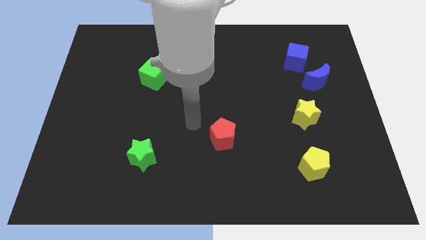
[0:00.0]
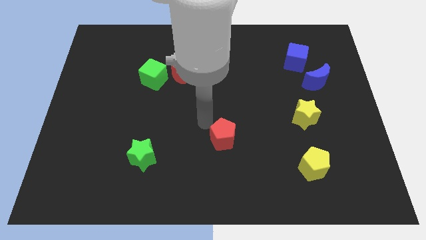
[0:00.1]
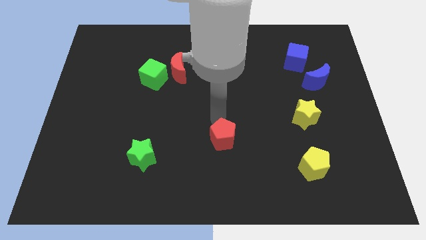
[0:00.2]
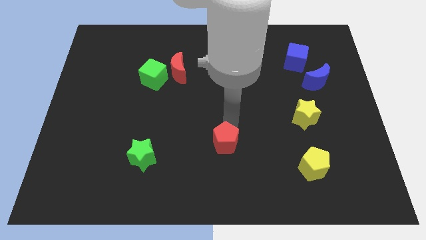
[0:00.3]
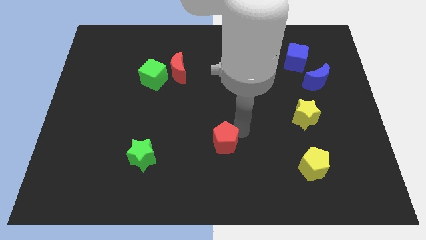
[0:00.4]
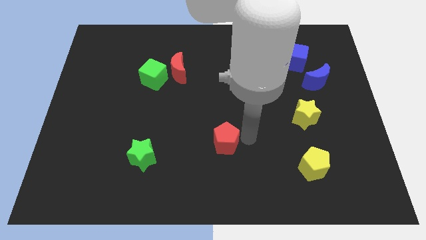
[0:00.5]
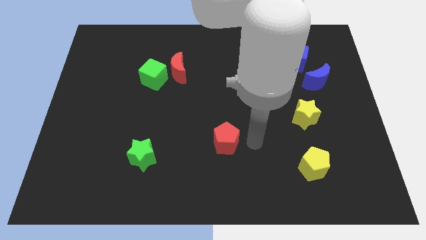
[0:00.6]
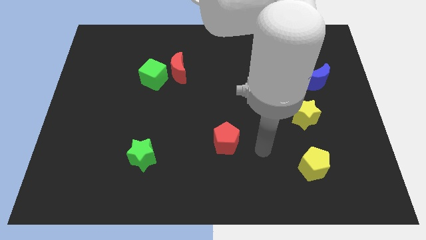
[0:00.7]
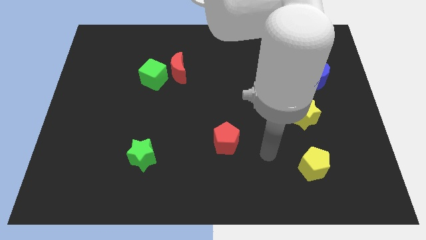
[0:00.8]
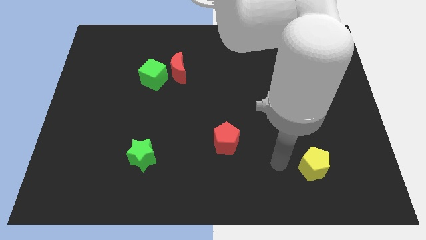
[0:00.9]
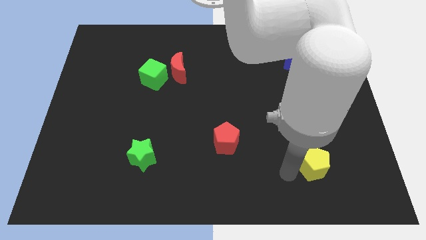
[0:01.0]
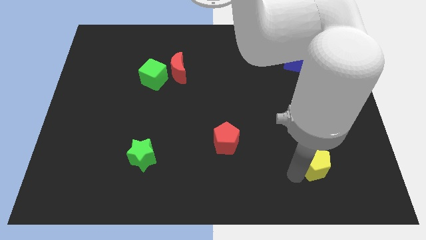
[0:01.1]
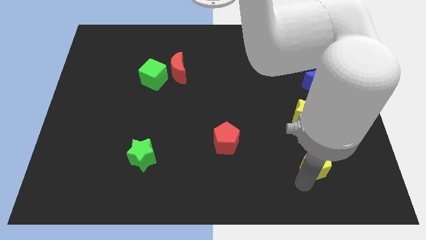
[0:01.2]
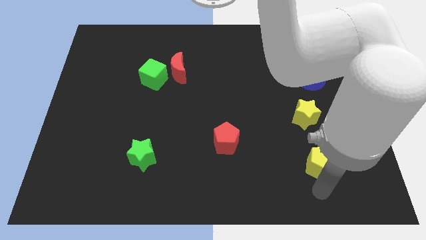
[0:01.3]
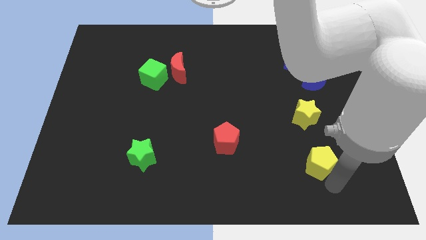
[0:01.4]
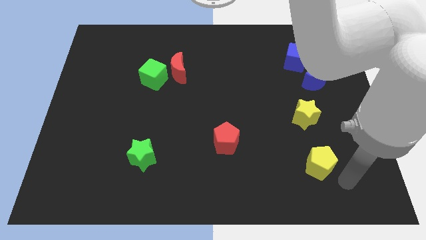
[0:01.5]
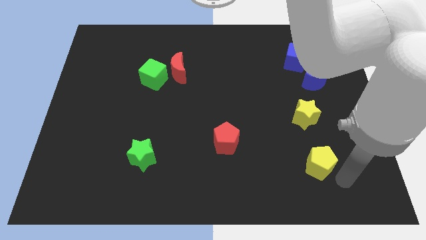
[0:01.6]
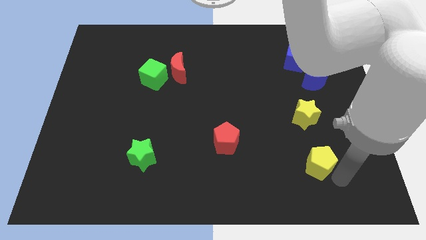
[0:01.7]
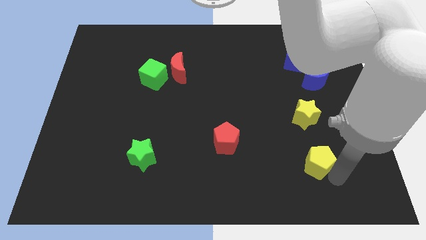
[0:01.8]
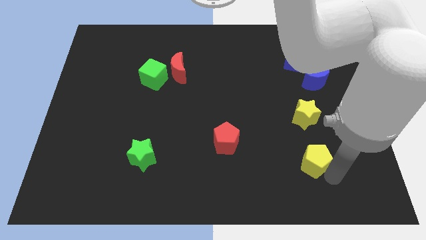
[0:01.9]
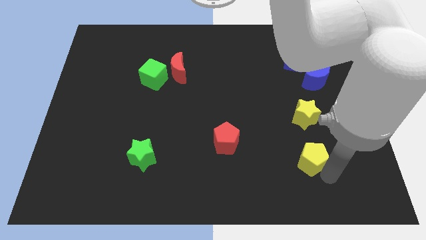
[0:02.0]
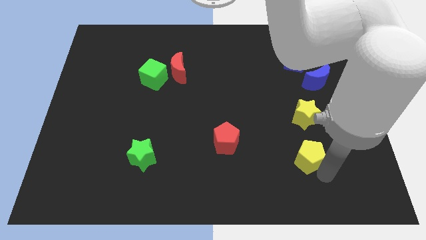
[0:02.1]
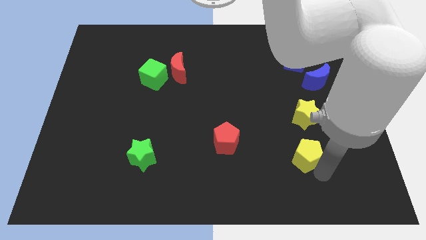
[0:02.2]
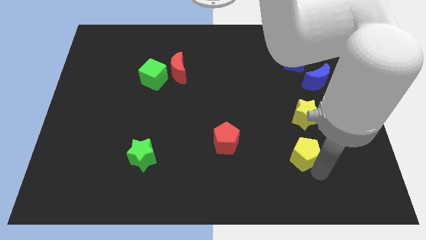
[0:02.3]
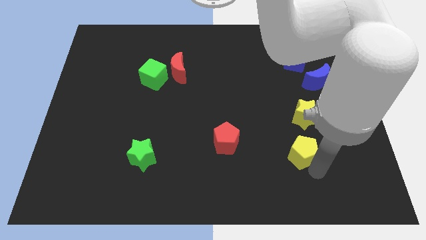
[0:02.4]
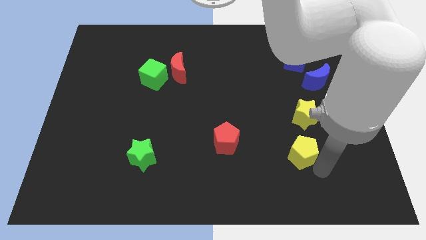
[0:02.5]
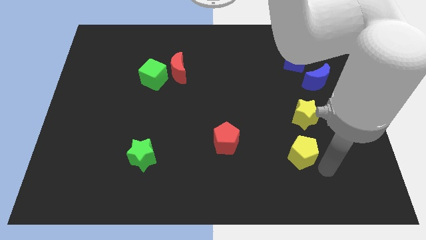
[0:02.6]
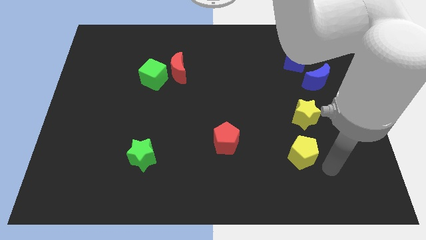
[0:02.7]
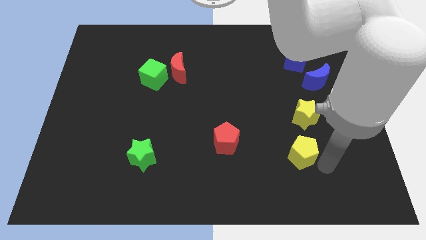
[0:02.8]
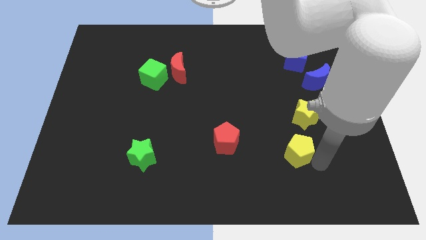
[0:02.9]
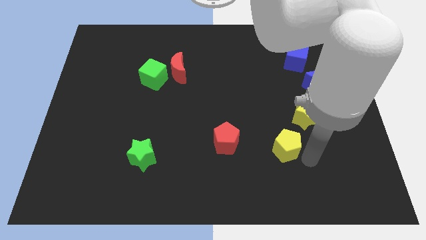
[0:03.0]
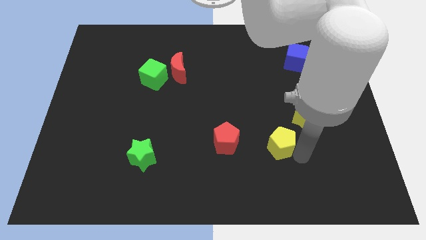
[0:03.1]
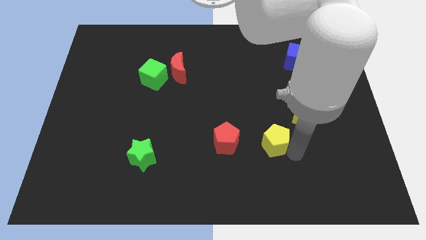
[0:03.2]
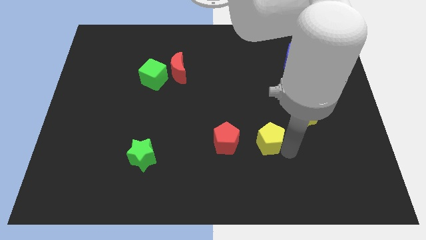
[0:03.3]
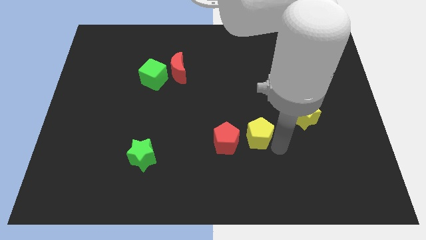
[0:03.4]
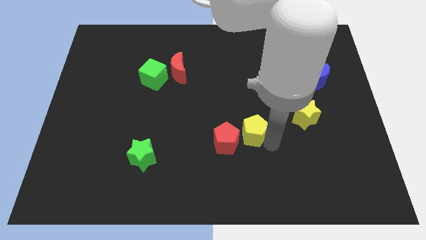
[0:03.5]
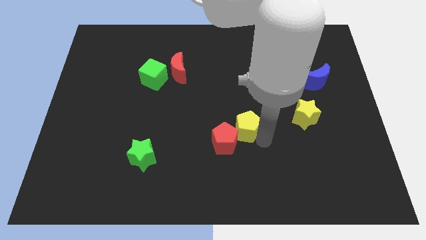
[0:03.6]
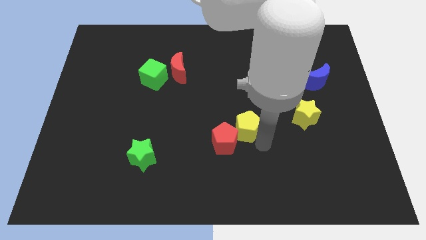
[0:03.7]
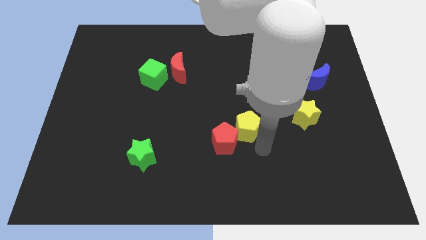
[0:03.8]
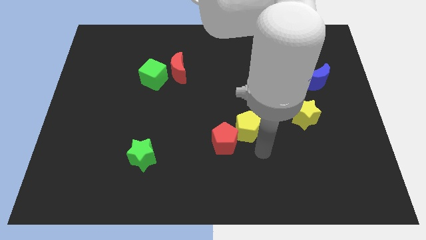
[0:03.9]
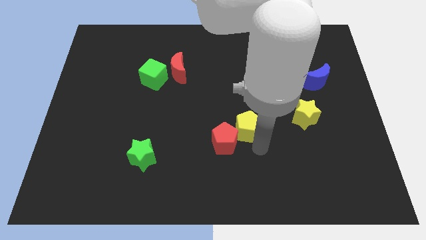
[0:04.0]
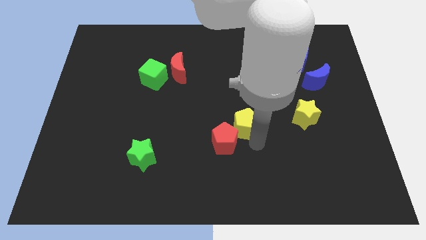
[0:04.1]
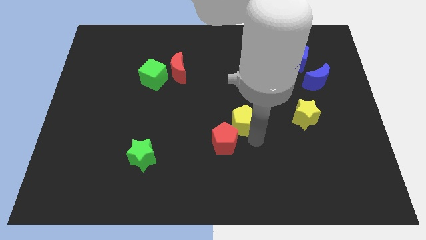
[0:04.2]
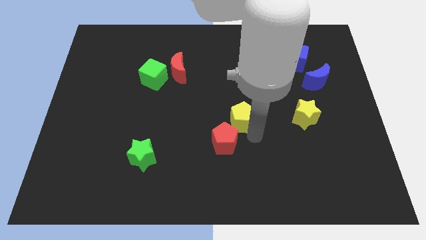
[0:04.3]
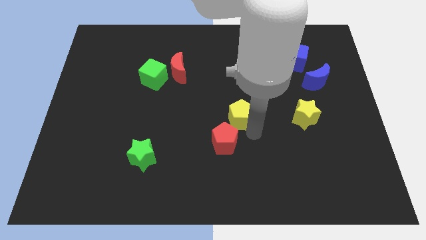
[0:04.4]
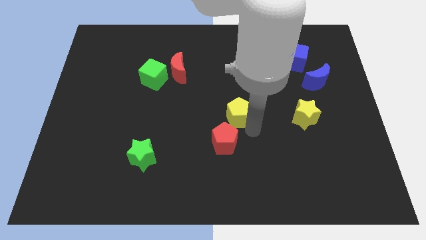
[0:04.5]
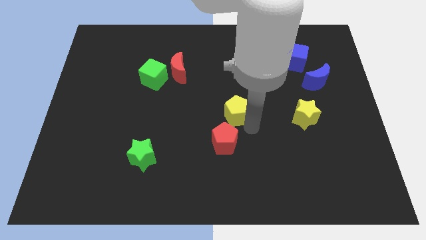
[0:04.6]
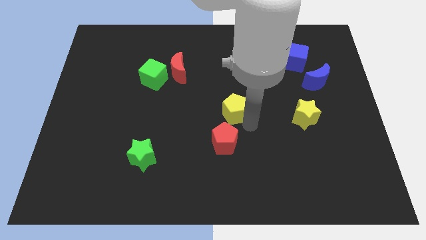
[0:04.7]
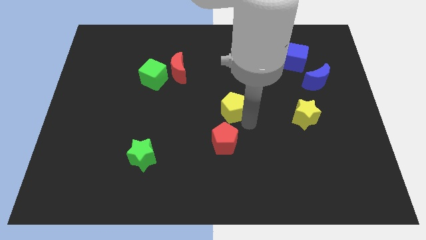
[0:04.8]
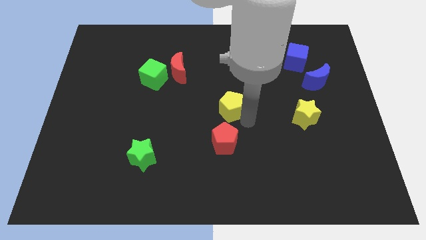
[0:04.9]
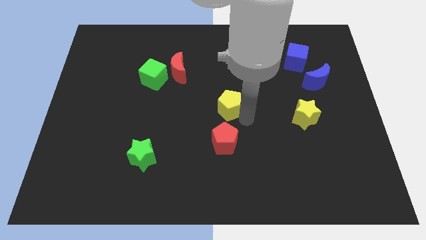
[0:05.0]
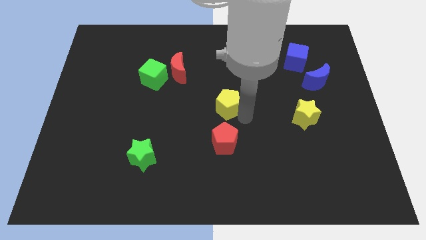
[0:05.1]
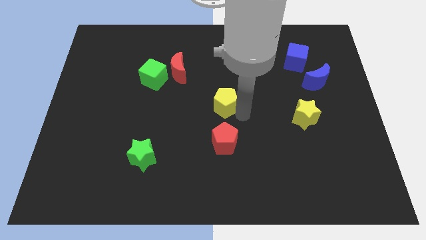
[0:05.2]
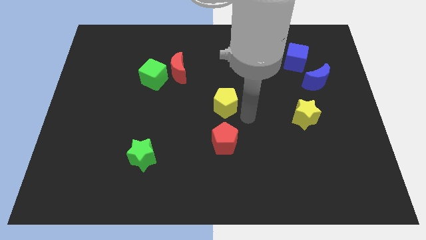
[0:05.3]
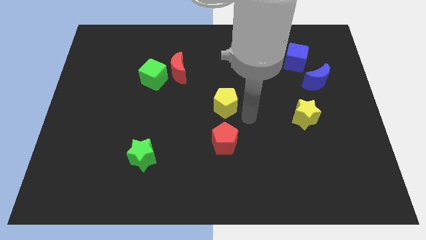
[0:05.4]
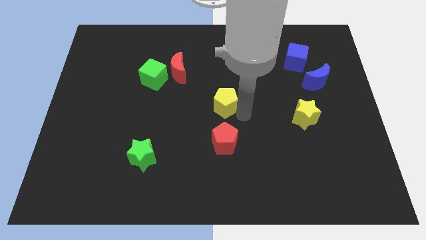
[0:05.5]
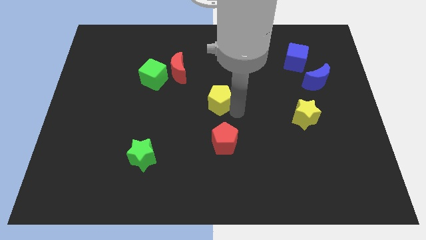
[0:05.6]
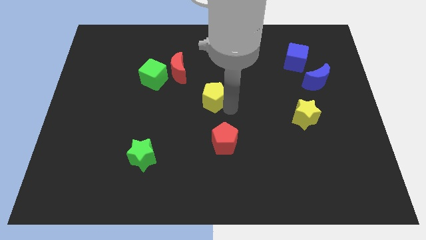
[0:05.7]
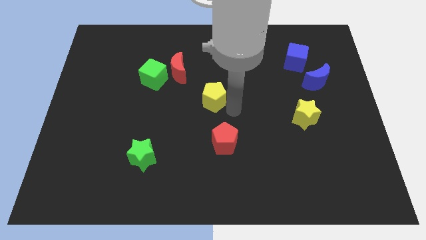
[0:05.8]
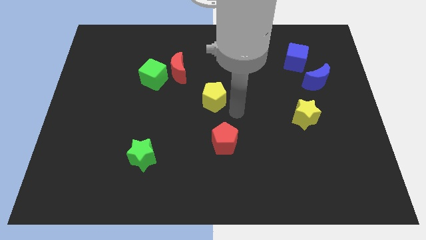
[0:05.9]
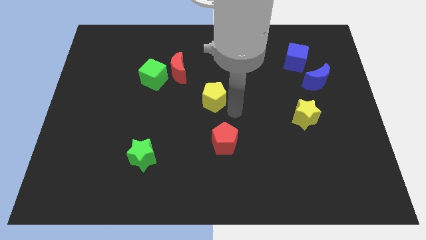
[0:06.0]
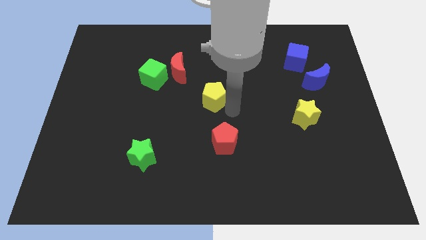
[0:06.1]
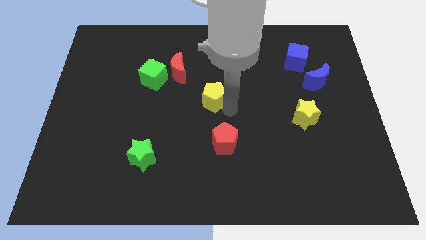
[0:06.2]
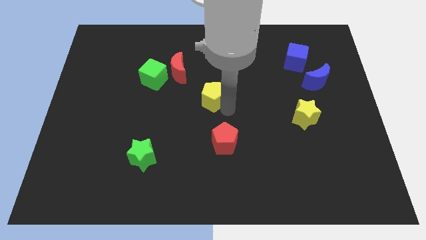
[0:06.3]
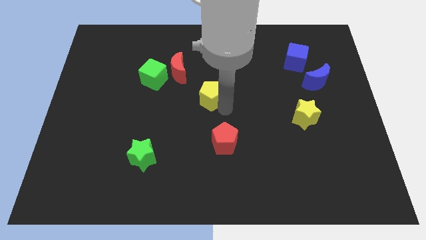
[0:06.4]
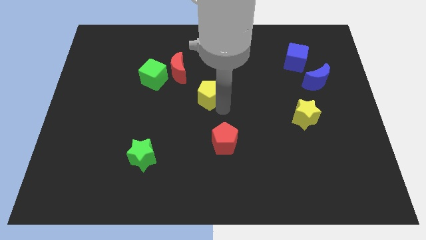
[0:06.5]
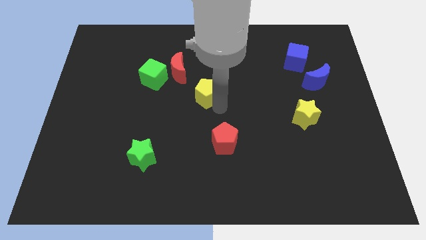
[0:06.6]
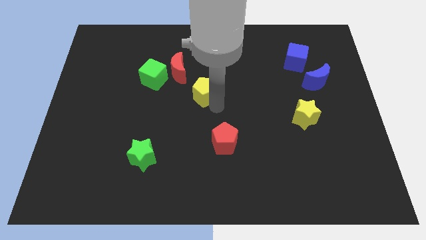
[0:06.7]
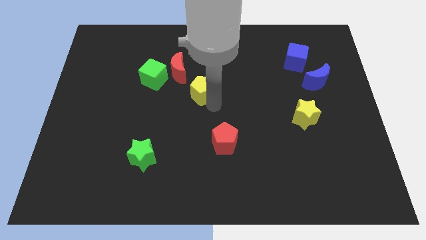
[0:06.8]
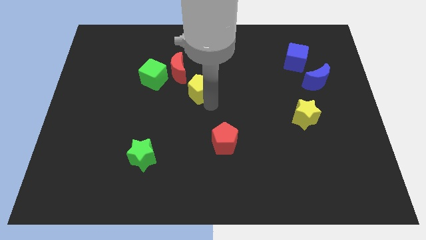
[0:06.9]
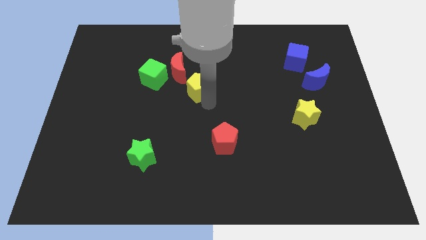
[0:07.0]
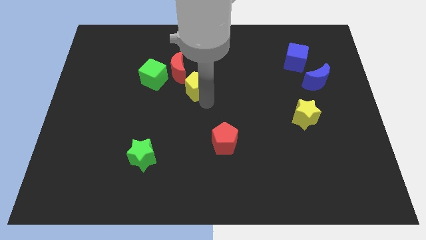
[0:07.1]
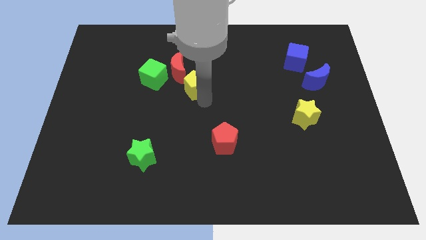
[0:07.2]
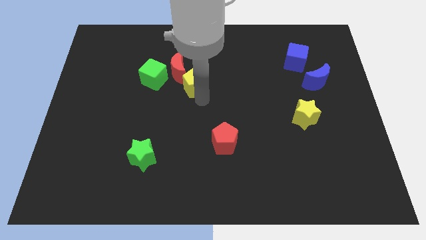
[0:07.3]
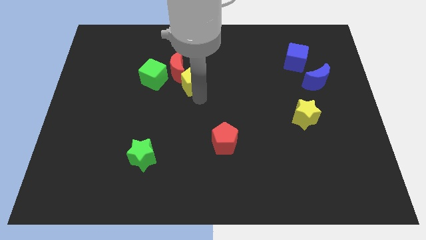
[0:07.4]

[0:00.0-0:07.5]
slide the yellow pentagon to the red moon
